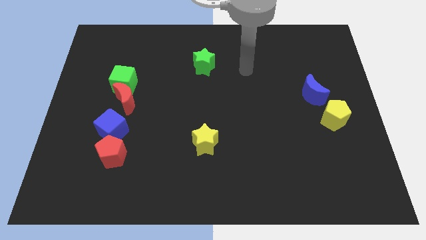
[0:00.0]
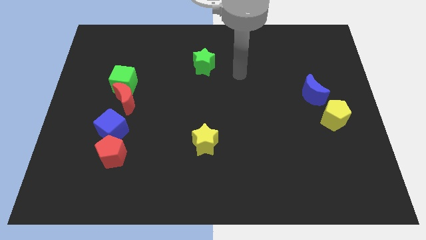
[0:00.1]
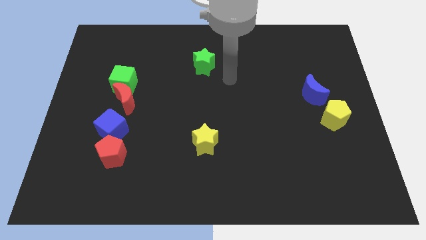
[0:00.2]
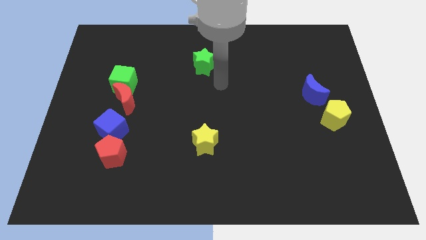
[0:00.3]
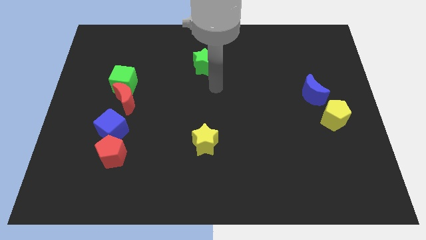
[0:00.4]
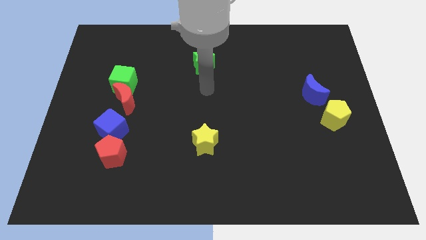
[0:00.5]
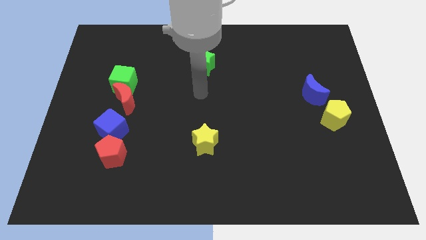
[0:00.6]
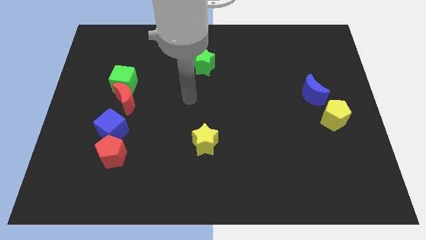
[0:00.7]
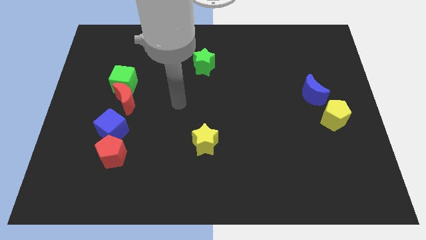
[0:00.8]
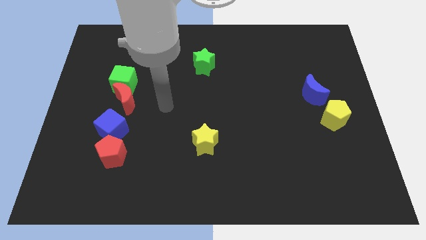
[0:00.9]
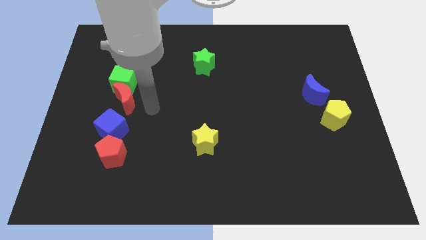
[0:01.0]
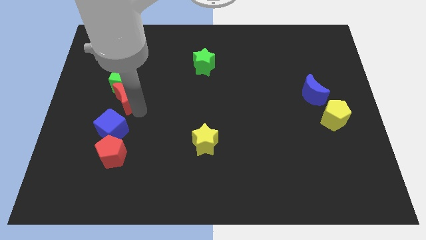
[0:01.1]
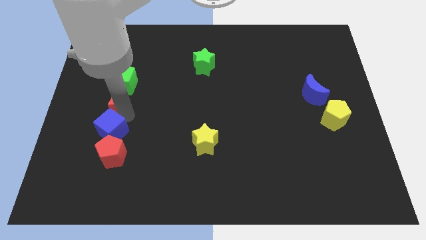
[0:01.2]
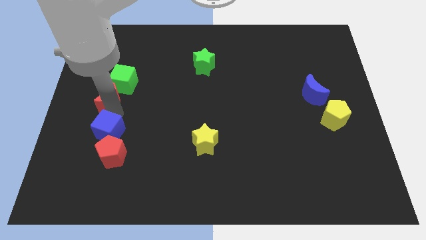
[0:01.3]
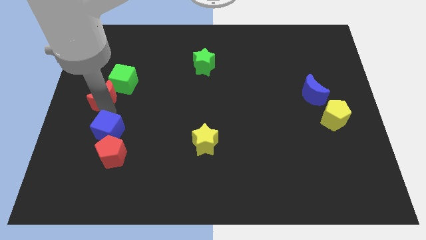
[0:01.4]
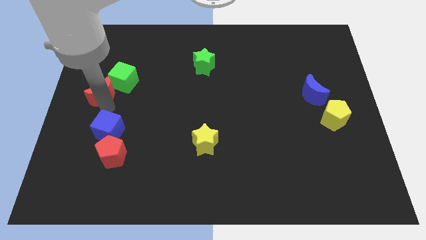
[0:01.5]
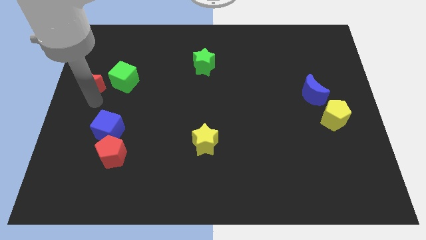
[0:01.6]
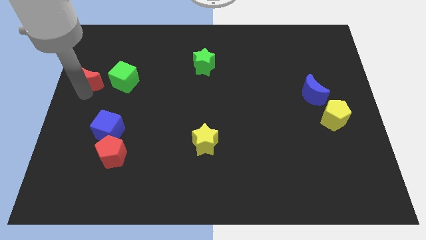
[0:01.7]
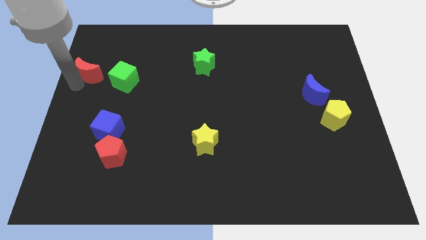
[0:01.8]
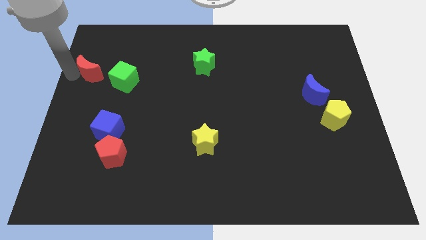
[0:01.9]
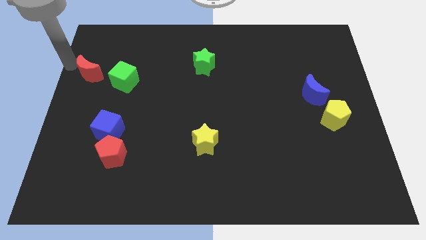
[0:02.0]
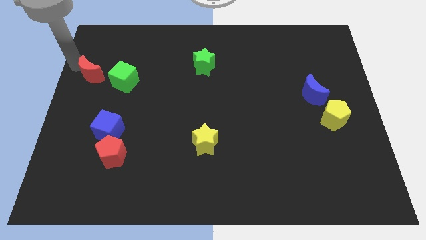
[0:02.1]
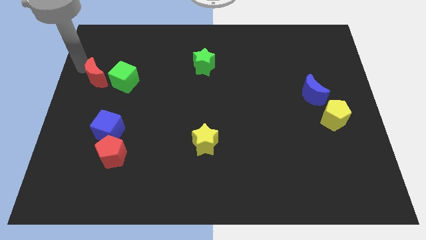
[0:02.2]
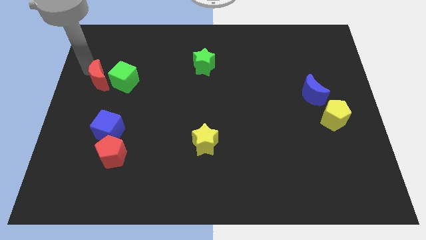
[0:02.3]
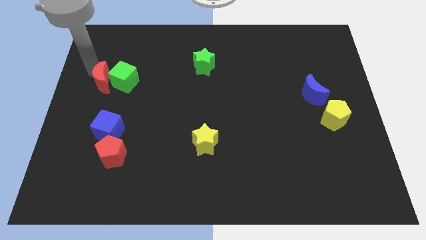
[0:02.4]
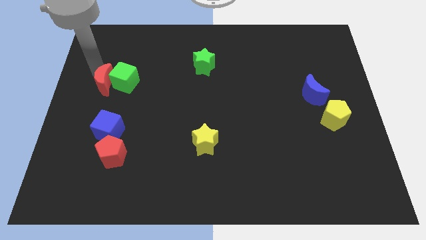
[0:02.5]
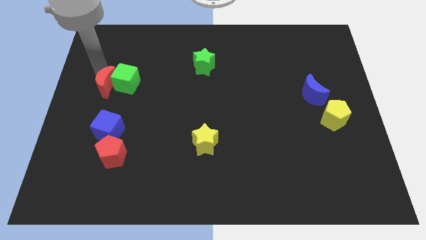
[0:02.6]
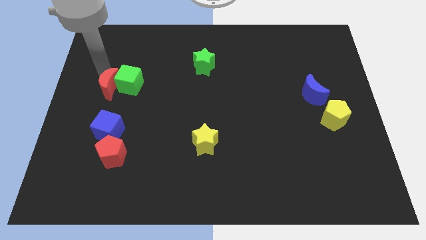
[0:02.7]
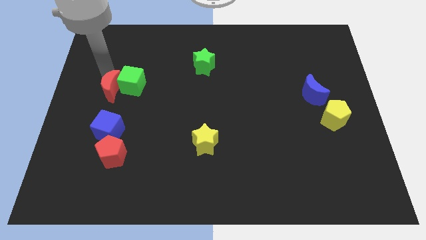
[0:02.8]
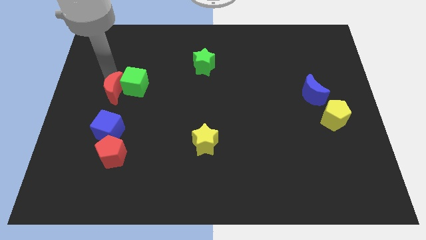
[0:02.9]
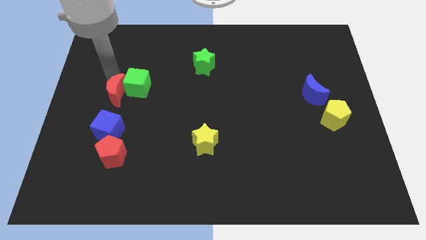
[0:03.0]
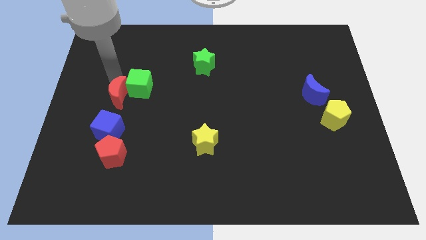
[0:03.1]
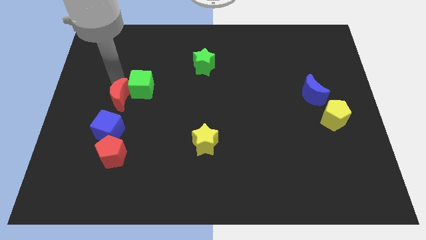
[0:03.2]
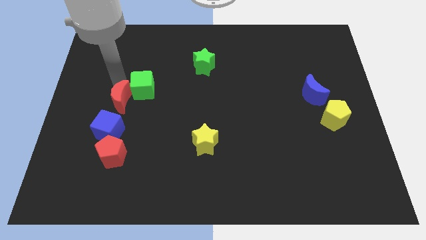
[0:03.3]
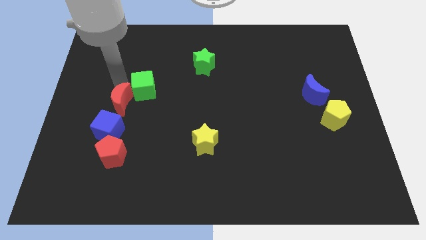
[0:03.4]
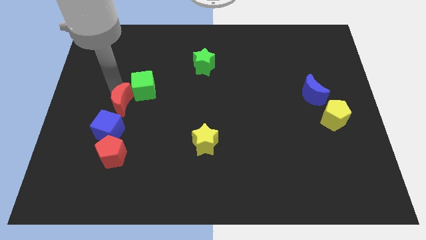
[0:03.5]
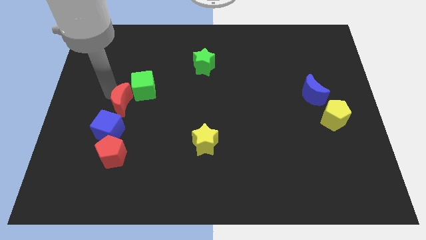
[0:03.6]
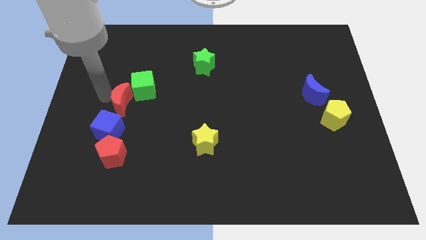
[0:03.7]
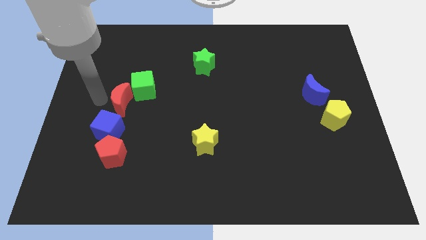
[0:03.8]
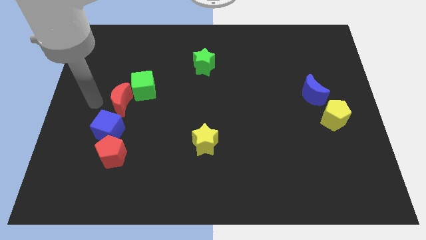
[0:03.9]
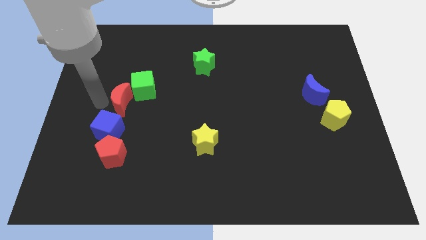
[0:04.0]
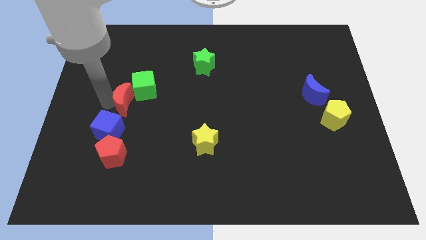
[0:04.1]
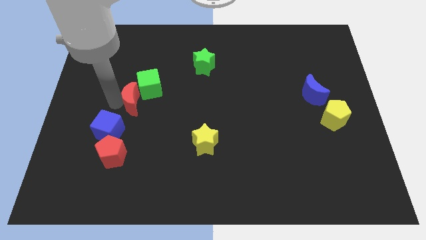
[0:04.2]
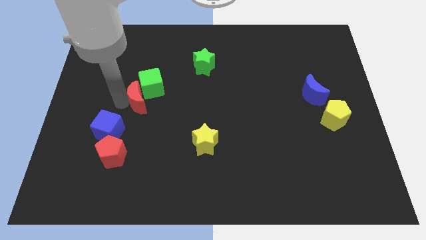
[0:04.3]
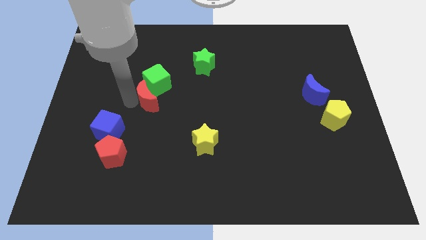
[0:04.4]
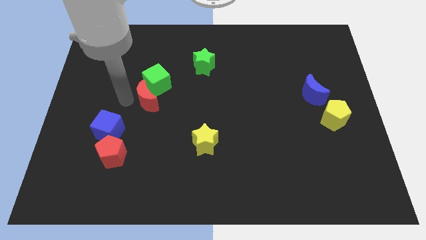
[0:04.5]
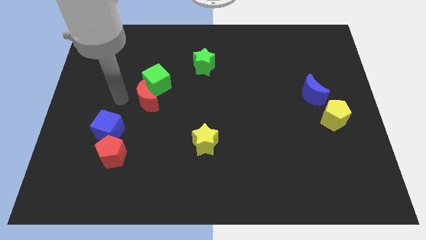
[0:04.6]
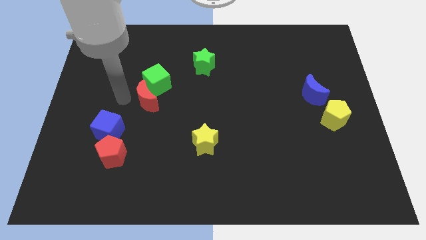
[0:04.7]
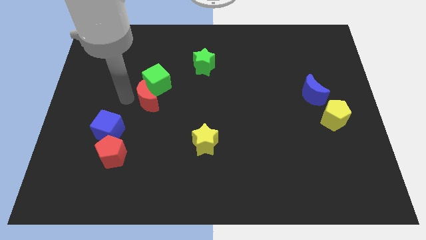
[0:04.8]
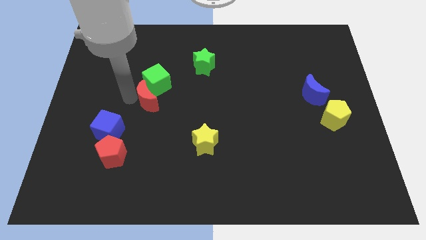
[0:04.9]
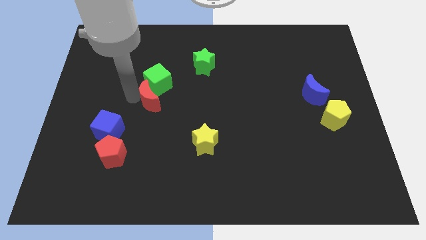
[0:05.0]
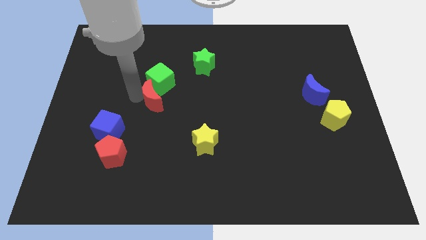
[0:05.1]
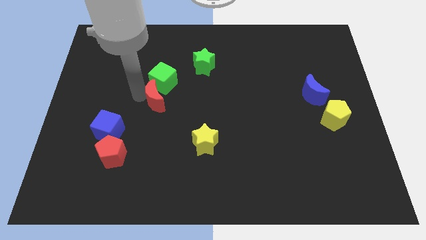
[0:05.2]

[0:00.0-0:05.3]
slide the red moon right a little

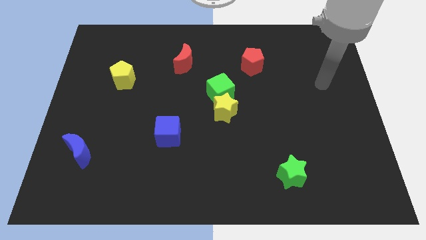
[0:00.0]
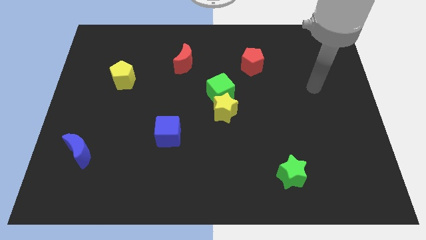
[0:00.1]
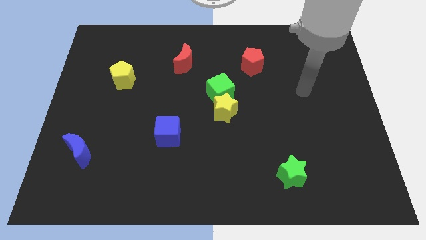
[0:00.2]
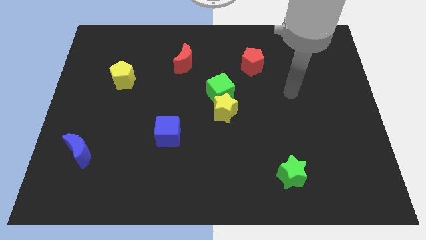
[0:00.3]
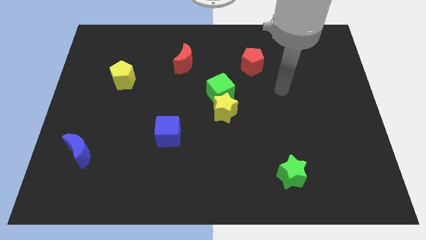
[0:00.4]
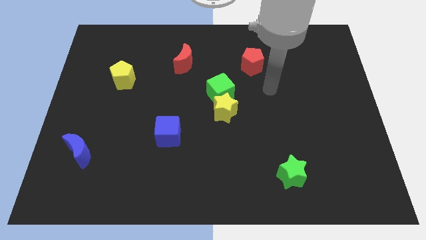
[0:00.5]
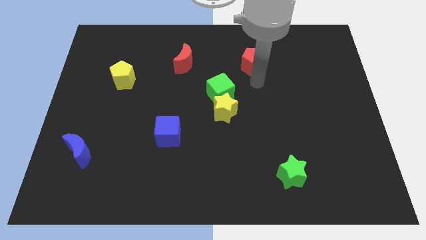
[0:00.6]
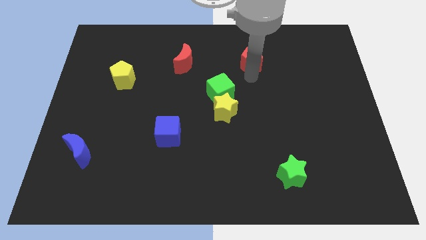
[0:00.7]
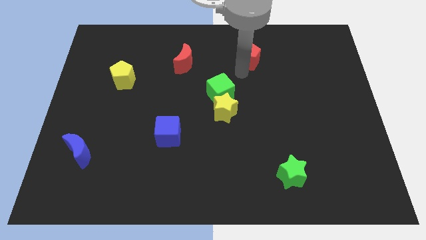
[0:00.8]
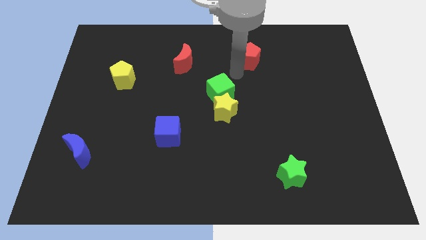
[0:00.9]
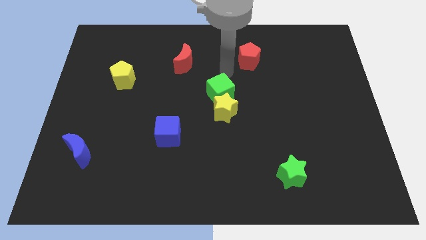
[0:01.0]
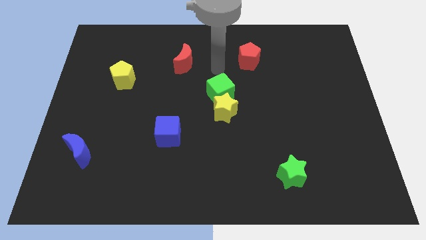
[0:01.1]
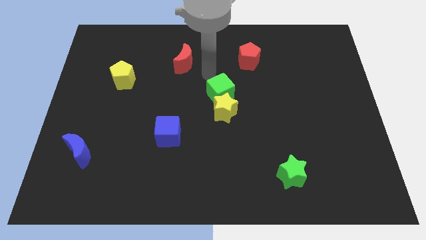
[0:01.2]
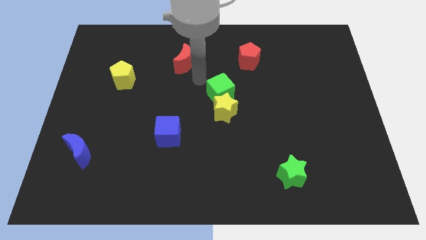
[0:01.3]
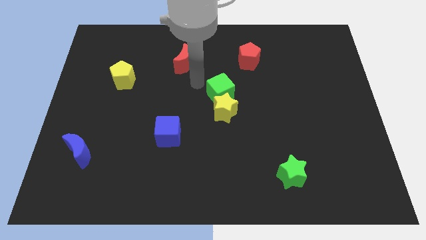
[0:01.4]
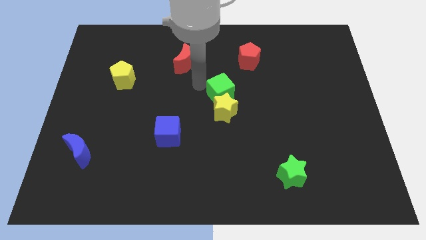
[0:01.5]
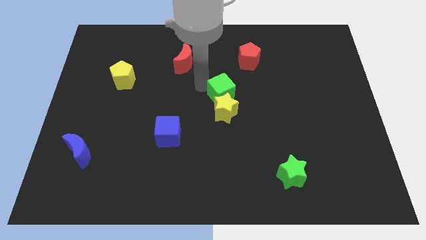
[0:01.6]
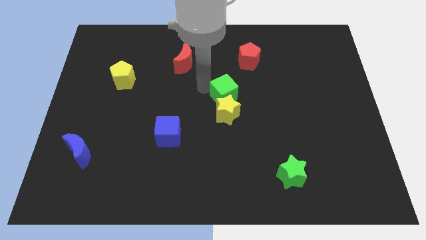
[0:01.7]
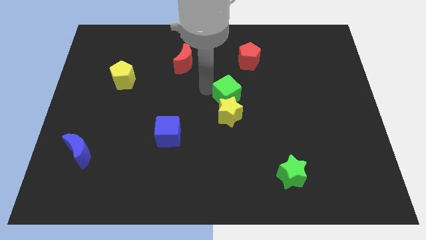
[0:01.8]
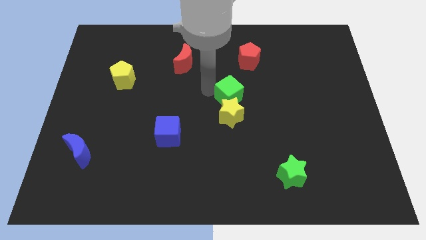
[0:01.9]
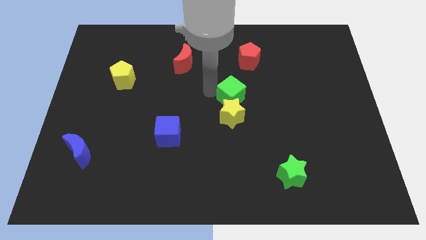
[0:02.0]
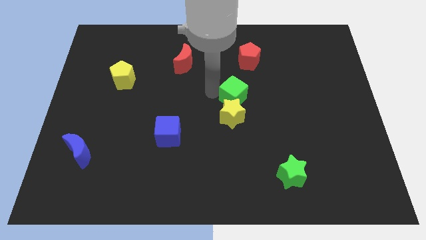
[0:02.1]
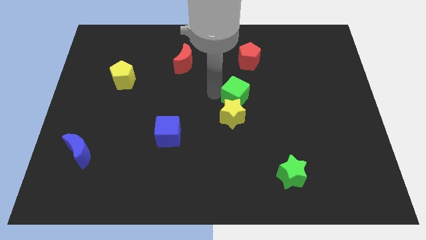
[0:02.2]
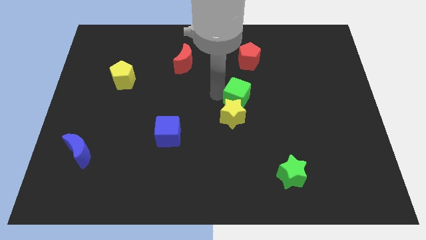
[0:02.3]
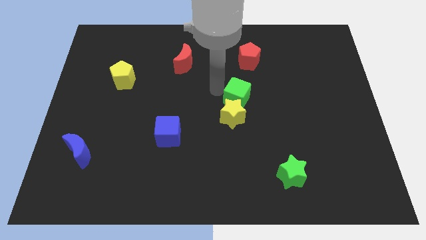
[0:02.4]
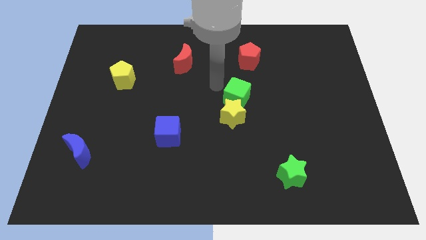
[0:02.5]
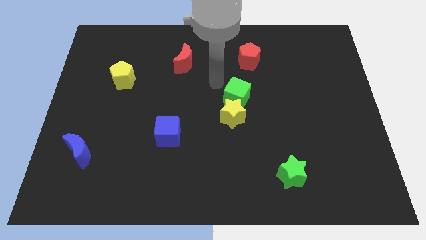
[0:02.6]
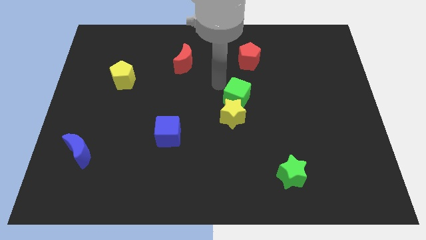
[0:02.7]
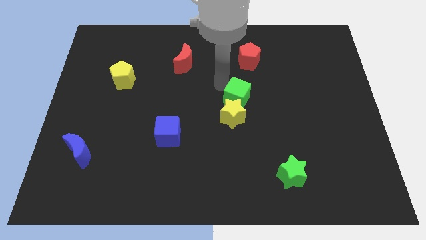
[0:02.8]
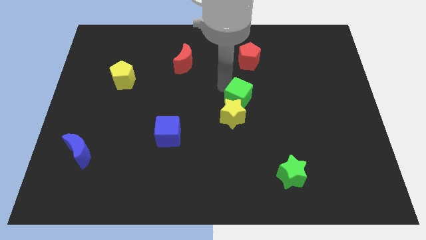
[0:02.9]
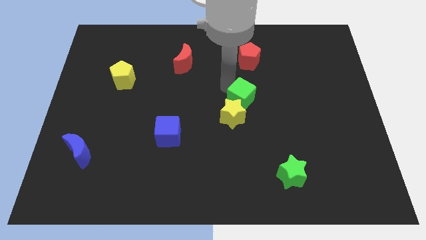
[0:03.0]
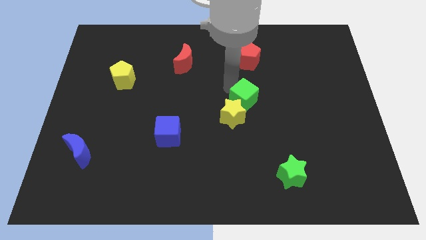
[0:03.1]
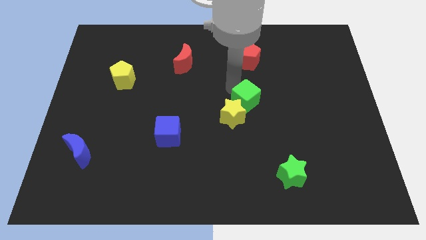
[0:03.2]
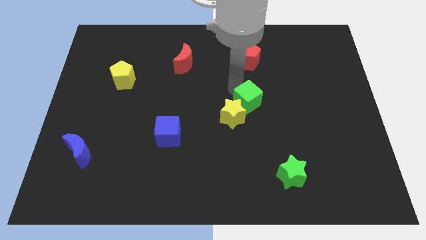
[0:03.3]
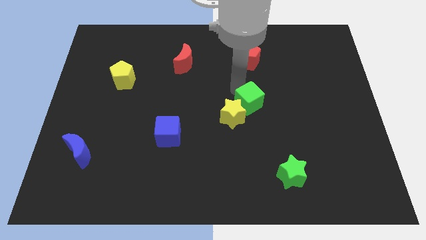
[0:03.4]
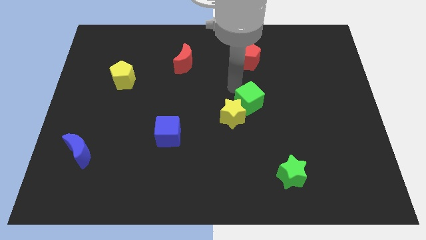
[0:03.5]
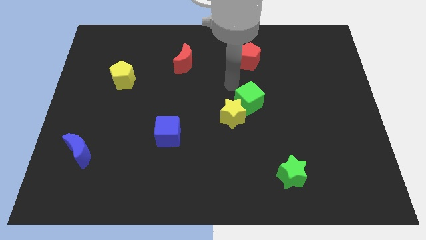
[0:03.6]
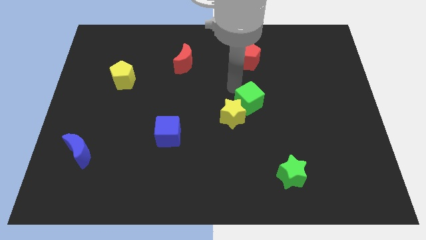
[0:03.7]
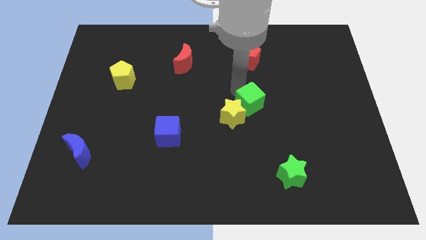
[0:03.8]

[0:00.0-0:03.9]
push the green cube a little down and right diagonally
